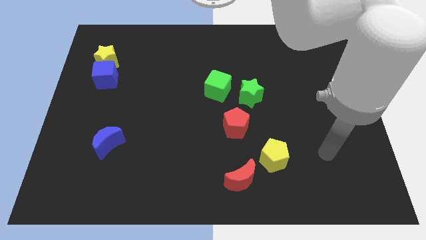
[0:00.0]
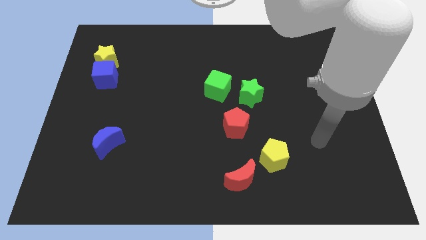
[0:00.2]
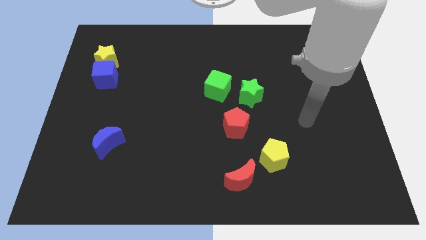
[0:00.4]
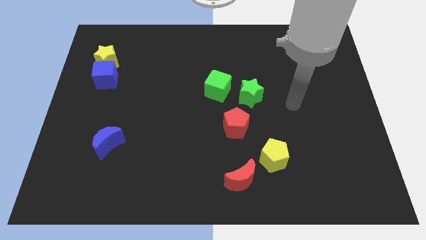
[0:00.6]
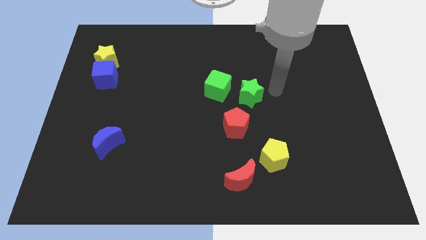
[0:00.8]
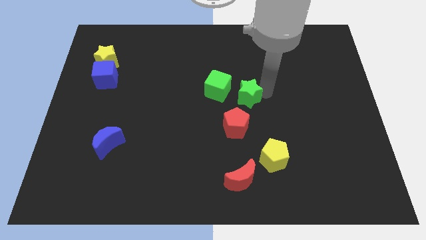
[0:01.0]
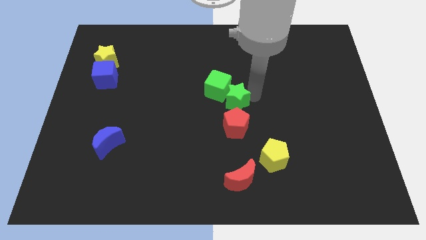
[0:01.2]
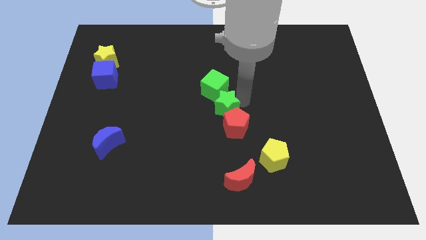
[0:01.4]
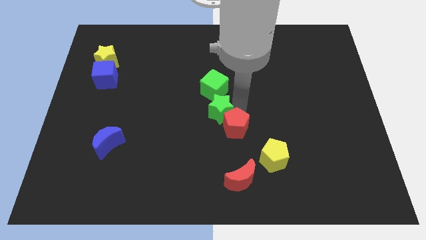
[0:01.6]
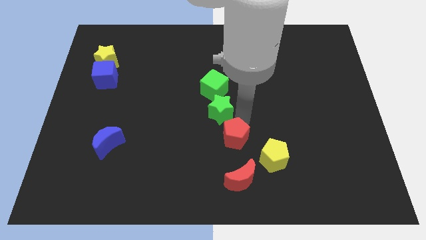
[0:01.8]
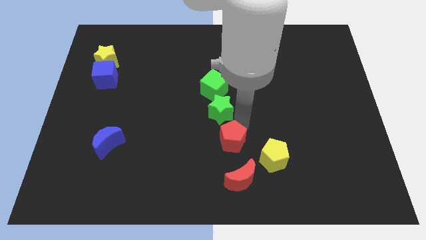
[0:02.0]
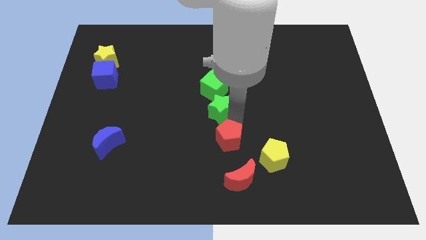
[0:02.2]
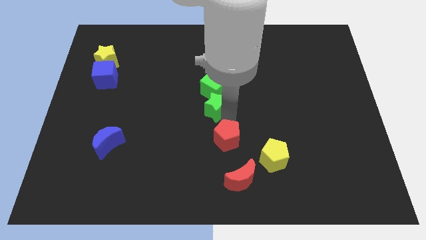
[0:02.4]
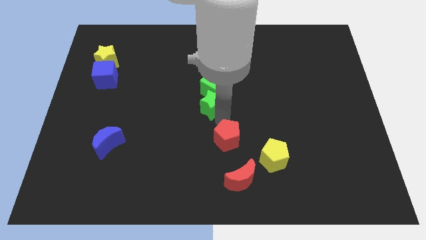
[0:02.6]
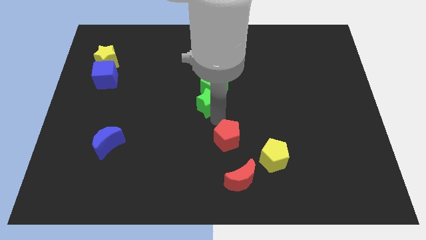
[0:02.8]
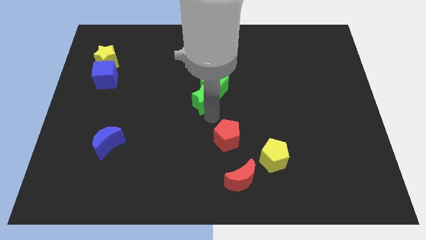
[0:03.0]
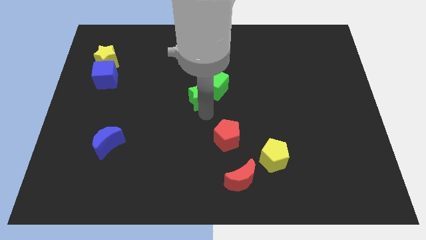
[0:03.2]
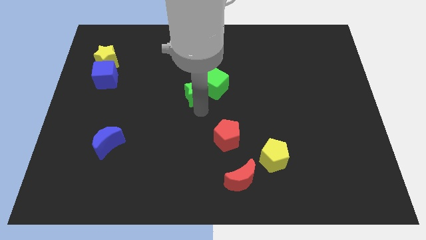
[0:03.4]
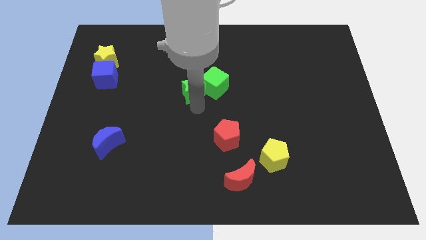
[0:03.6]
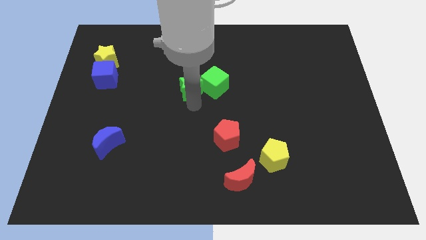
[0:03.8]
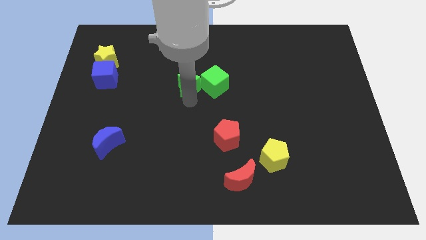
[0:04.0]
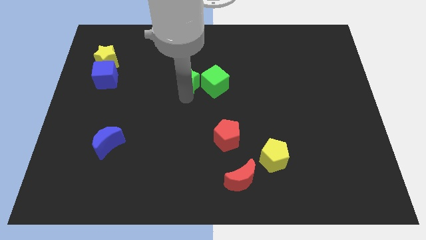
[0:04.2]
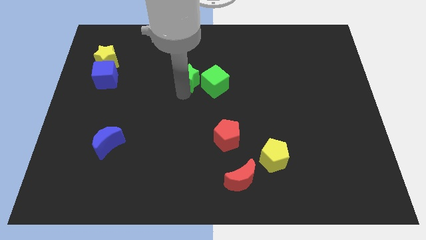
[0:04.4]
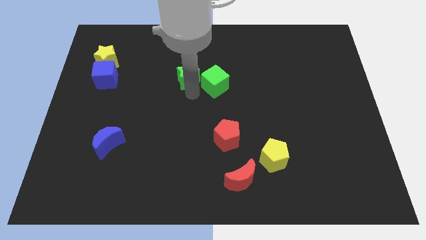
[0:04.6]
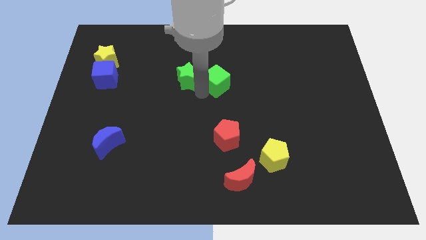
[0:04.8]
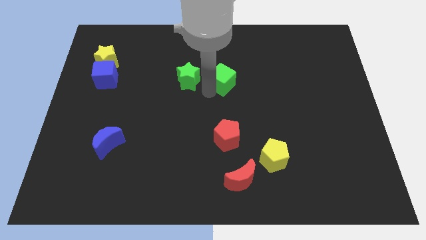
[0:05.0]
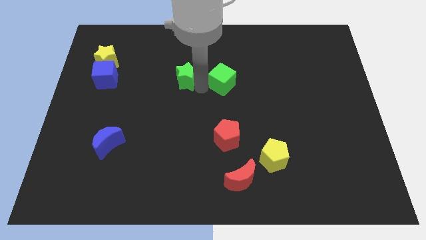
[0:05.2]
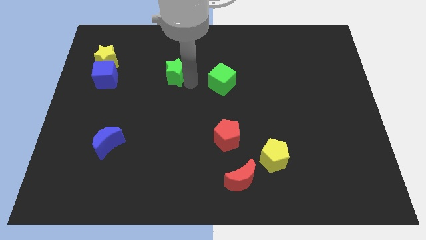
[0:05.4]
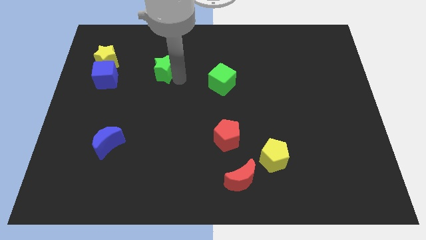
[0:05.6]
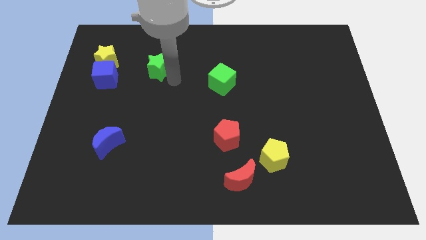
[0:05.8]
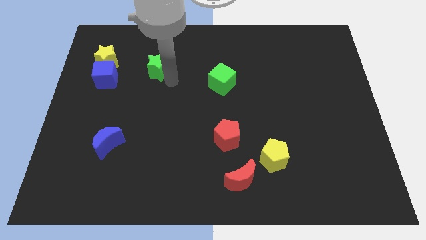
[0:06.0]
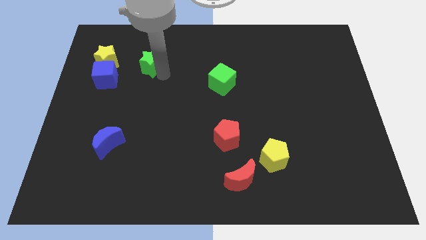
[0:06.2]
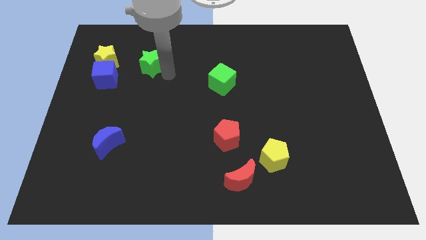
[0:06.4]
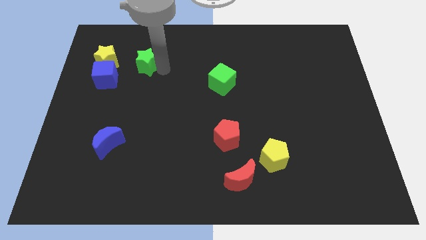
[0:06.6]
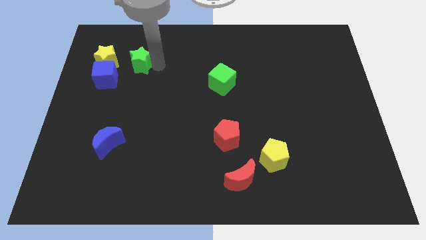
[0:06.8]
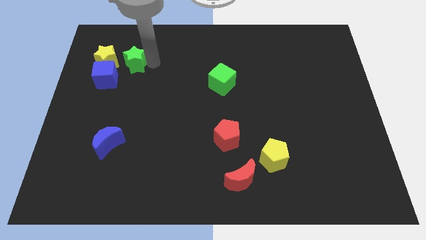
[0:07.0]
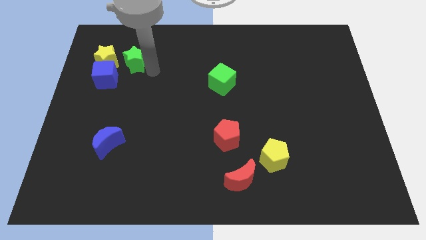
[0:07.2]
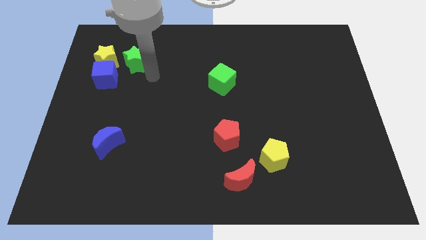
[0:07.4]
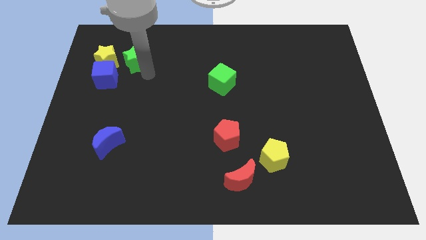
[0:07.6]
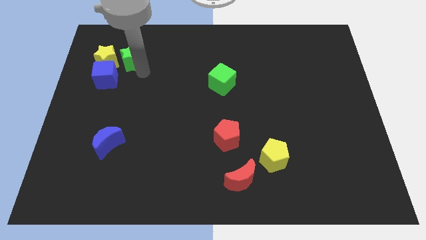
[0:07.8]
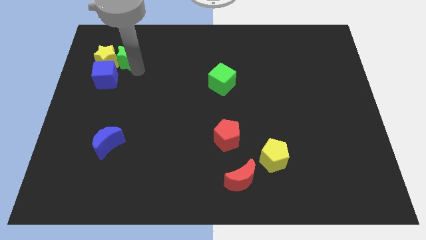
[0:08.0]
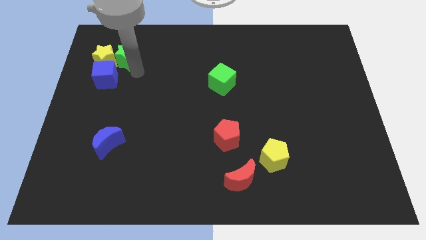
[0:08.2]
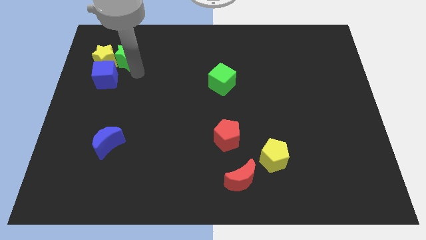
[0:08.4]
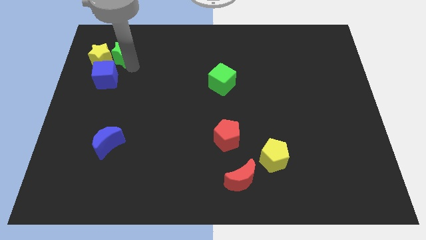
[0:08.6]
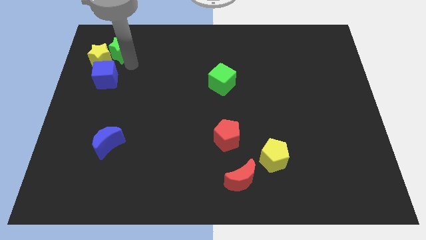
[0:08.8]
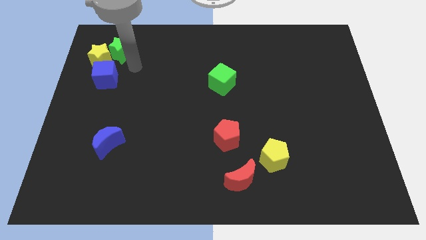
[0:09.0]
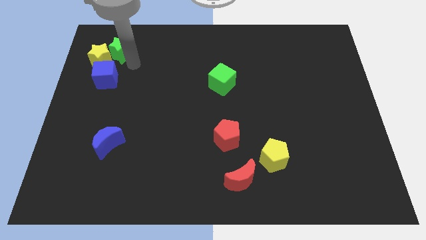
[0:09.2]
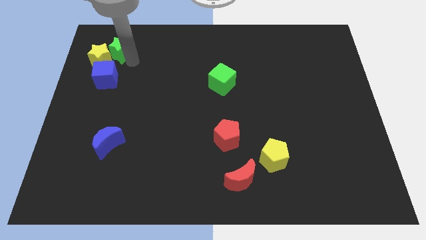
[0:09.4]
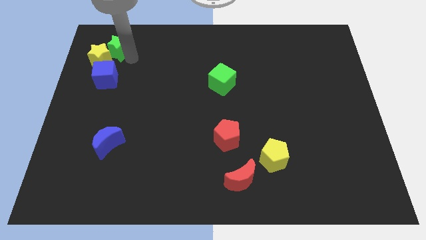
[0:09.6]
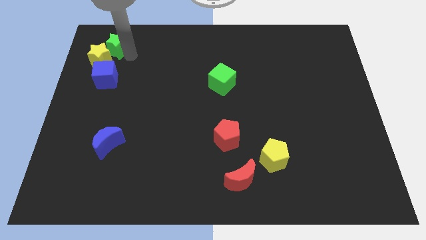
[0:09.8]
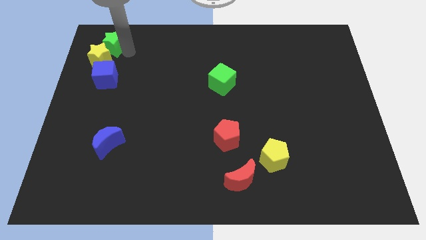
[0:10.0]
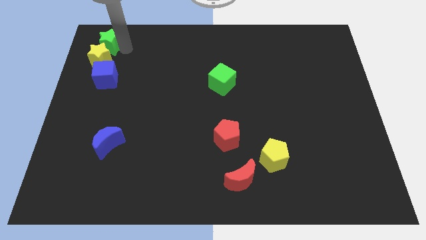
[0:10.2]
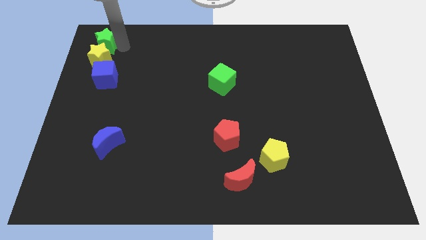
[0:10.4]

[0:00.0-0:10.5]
slide the green star to the upper left corner

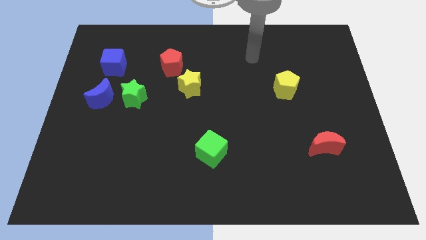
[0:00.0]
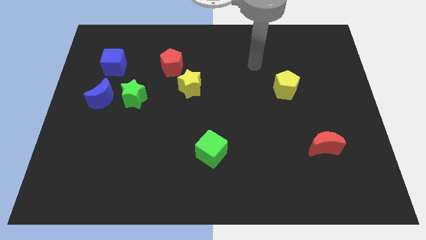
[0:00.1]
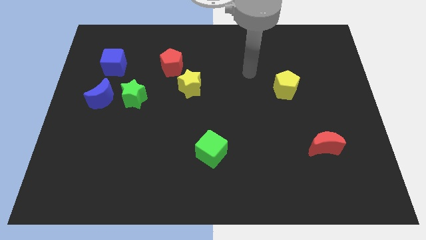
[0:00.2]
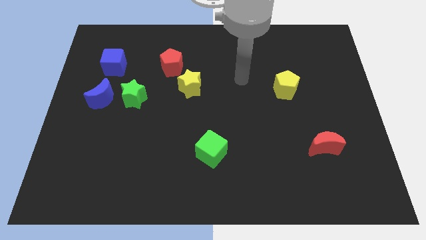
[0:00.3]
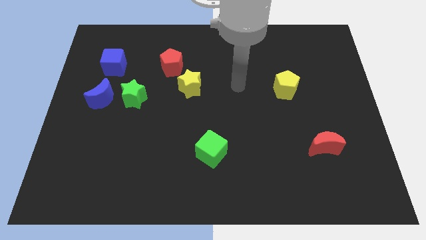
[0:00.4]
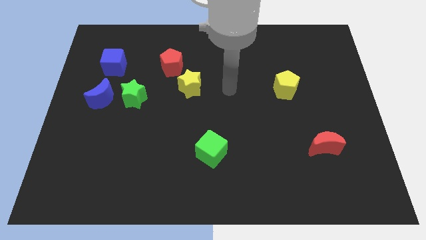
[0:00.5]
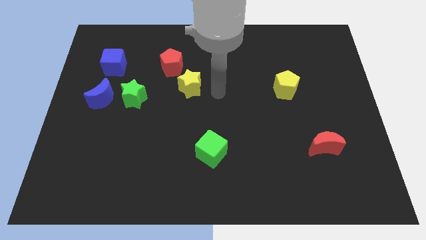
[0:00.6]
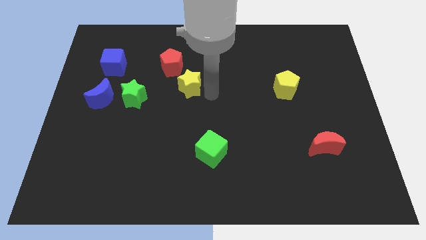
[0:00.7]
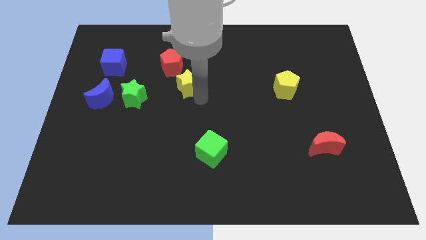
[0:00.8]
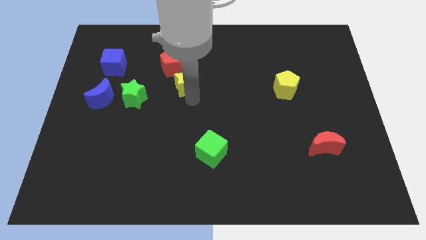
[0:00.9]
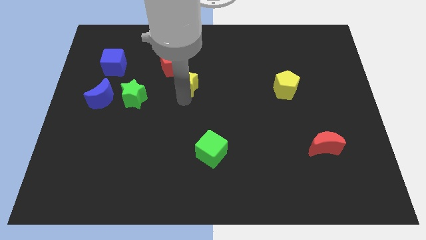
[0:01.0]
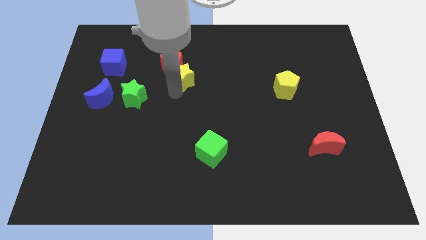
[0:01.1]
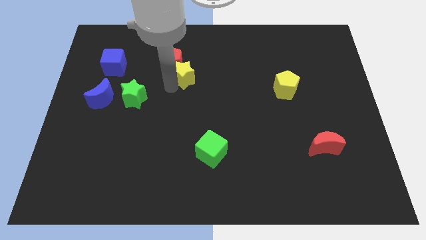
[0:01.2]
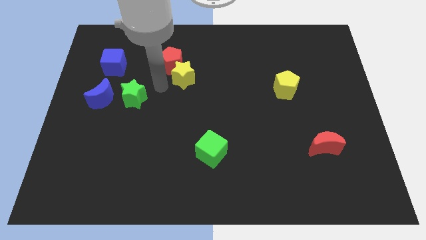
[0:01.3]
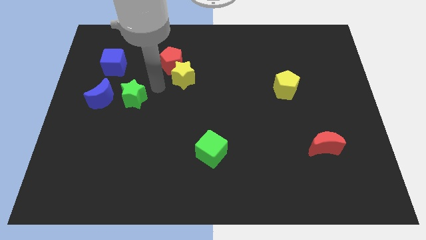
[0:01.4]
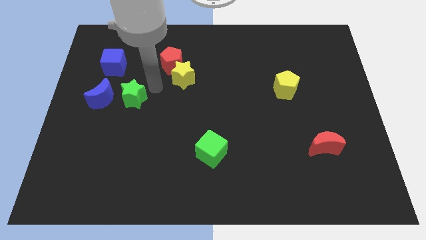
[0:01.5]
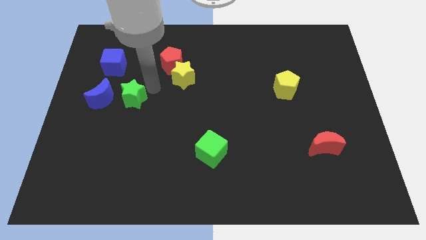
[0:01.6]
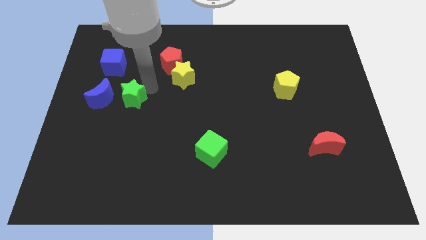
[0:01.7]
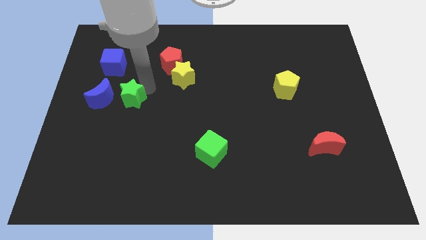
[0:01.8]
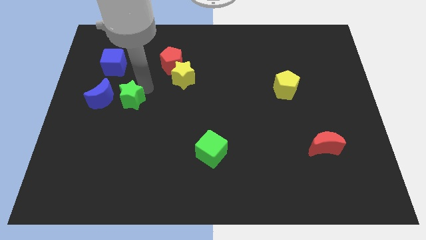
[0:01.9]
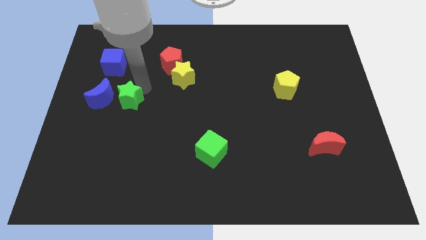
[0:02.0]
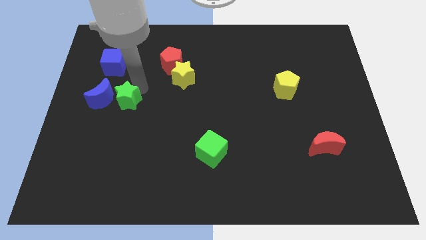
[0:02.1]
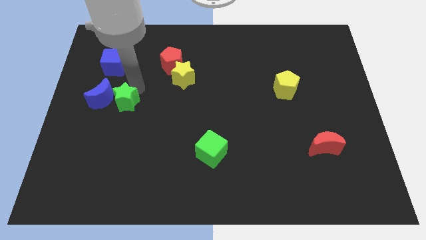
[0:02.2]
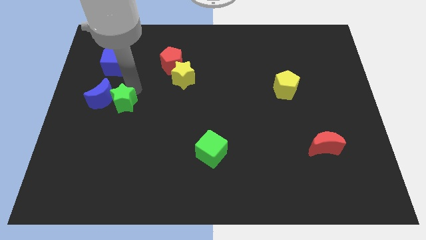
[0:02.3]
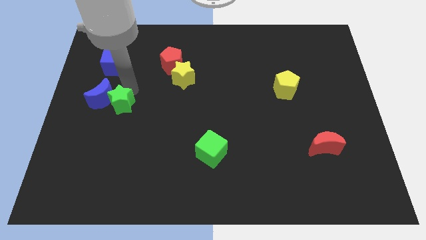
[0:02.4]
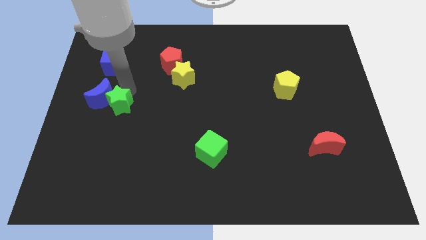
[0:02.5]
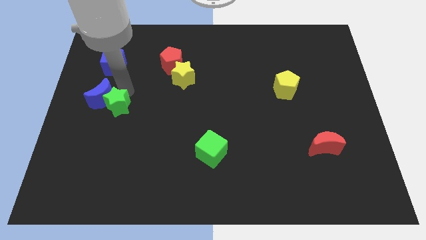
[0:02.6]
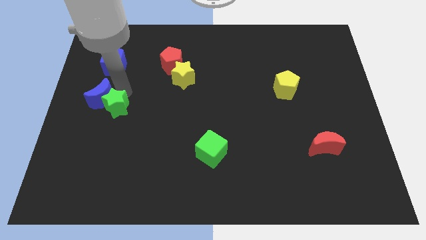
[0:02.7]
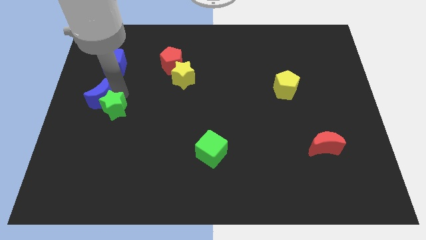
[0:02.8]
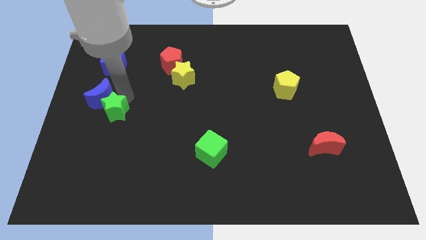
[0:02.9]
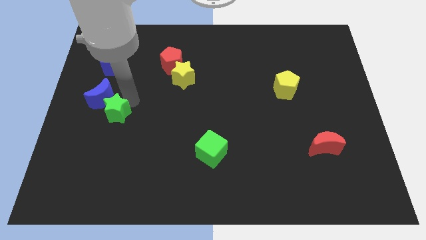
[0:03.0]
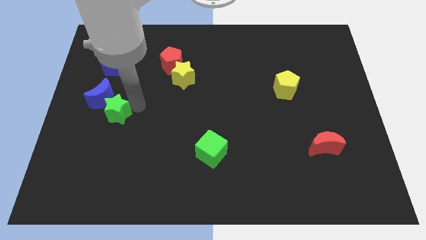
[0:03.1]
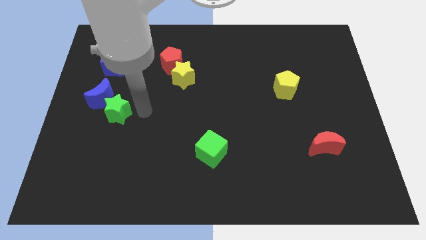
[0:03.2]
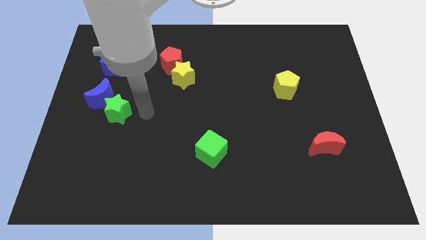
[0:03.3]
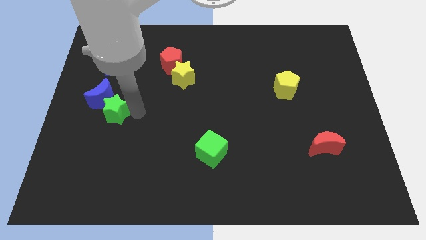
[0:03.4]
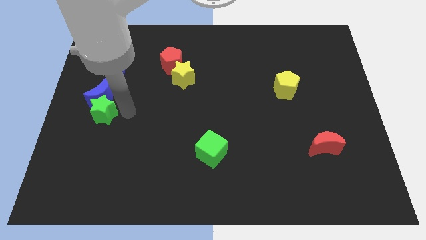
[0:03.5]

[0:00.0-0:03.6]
slide the green star to the center left
